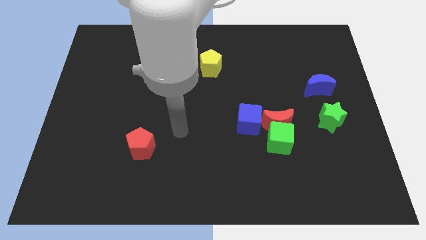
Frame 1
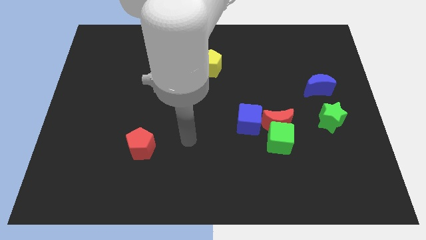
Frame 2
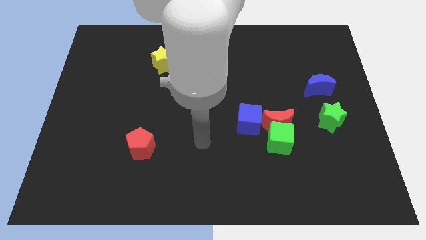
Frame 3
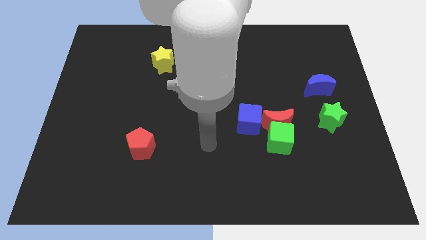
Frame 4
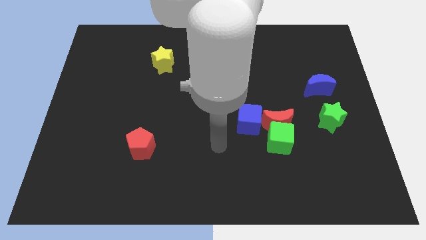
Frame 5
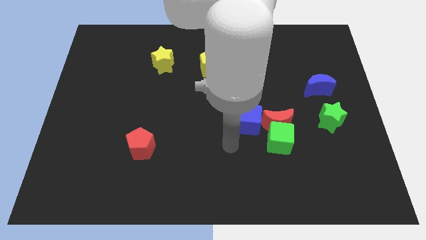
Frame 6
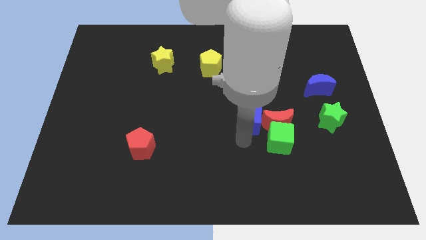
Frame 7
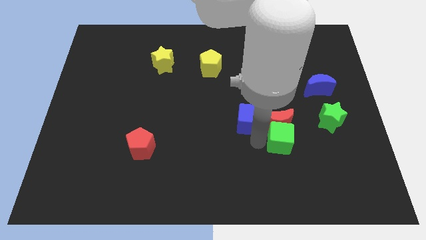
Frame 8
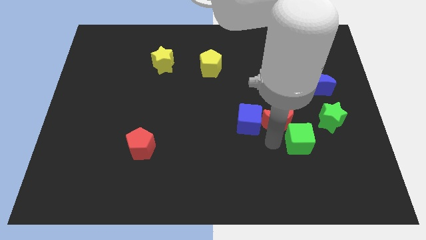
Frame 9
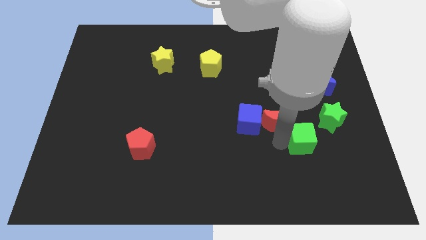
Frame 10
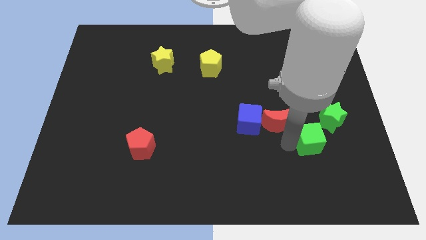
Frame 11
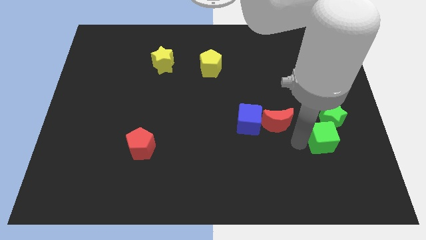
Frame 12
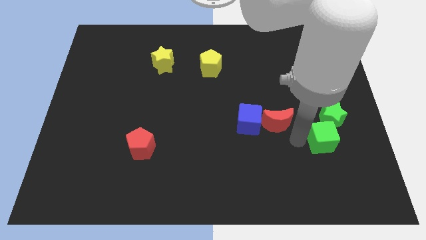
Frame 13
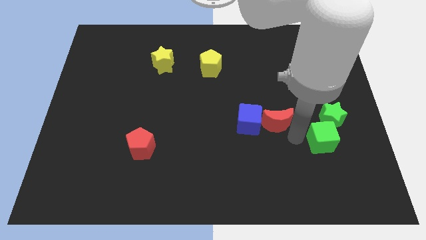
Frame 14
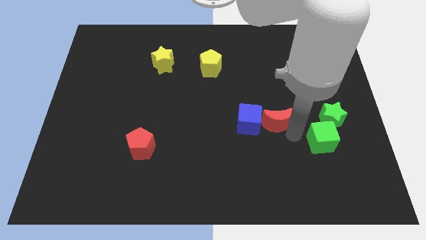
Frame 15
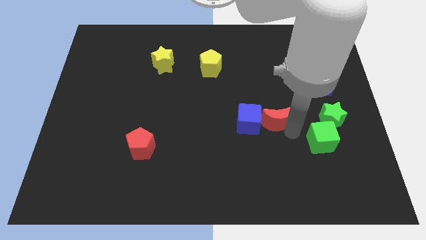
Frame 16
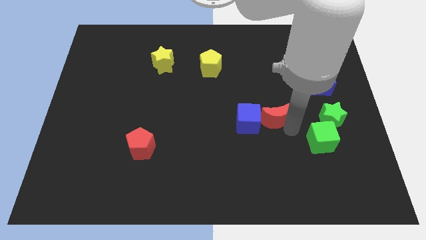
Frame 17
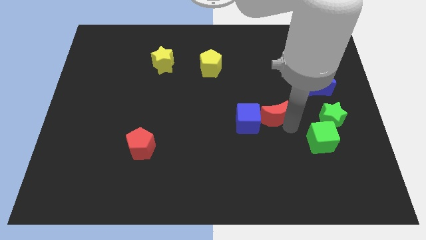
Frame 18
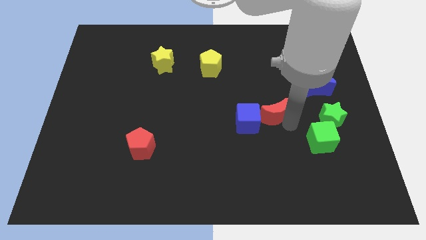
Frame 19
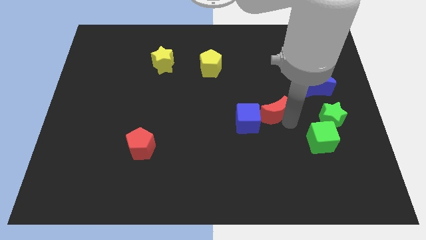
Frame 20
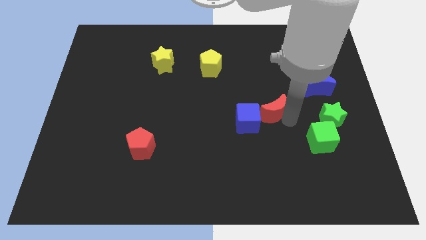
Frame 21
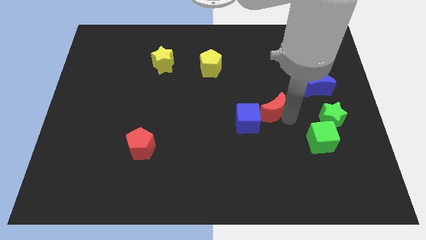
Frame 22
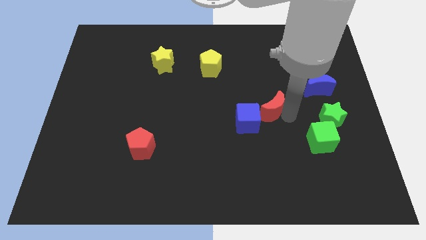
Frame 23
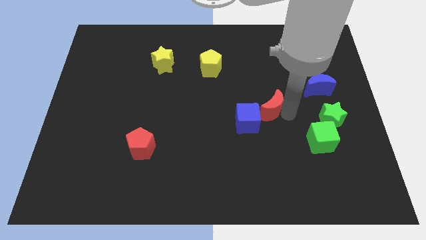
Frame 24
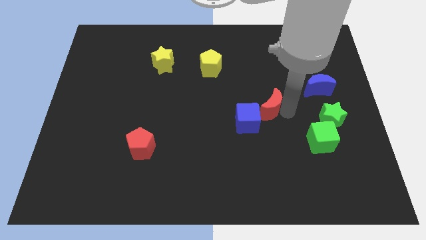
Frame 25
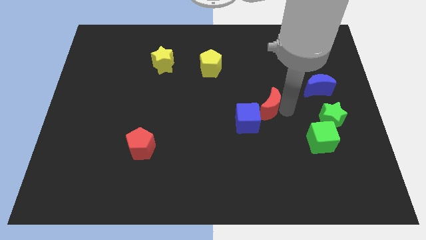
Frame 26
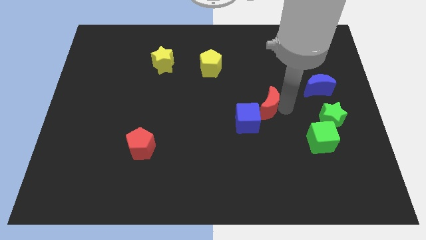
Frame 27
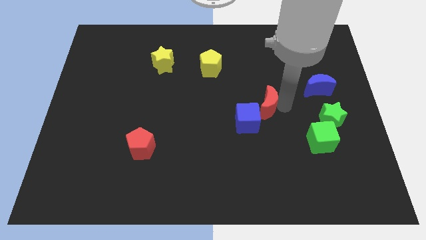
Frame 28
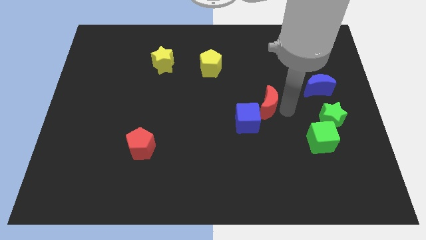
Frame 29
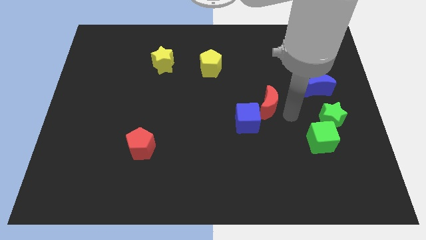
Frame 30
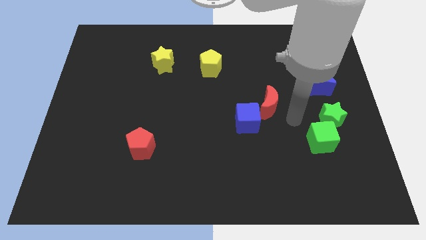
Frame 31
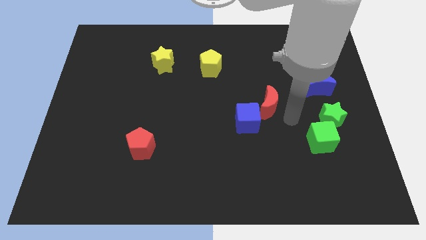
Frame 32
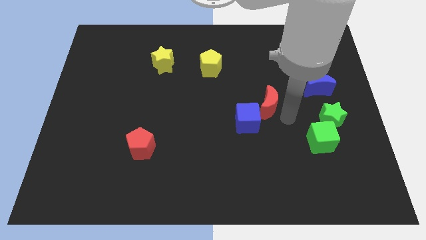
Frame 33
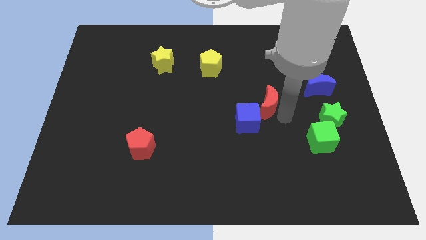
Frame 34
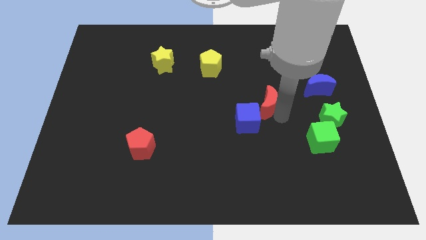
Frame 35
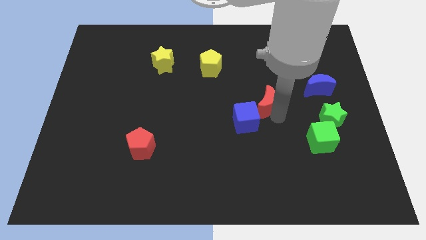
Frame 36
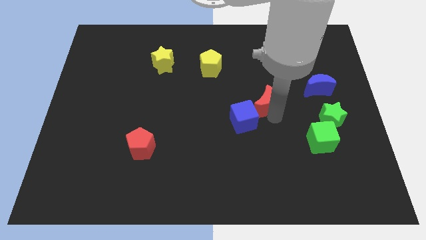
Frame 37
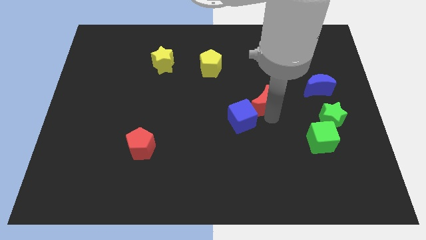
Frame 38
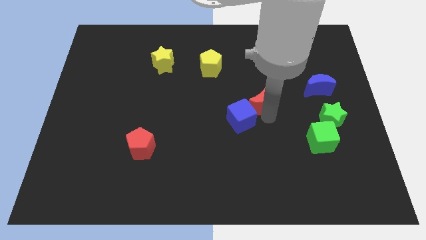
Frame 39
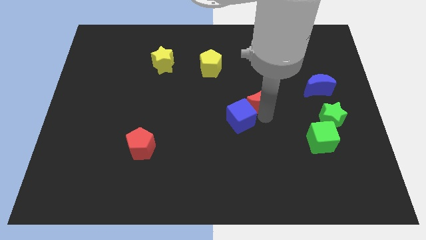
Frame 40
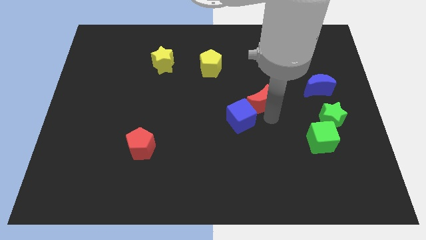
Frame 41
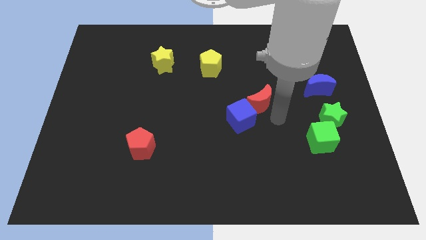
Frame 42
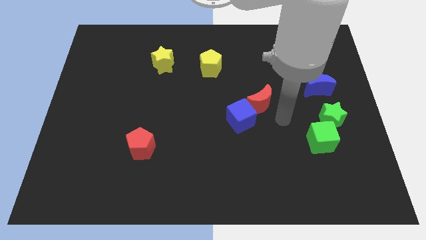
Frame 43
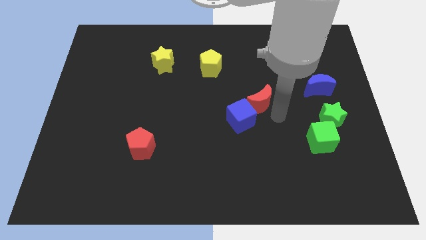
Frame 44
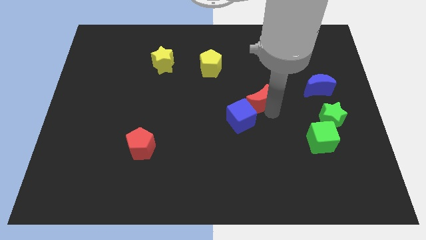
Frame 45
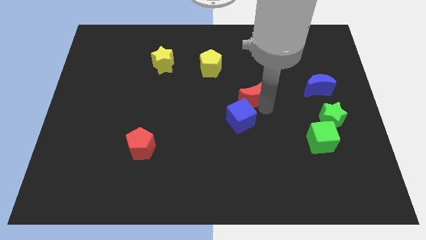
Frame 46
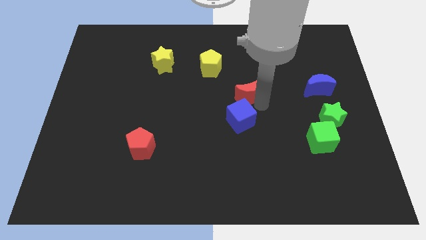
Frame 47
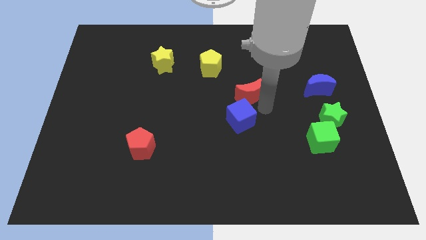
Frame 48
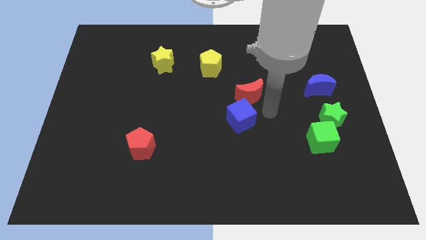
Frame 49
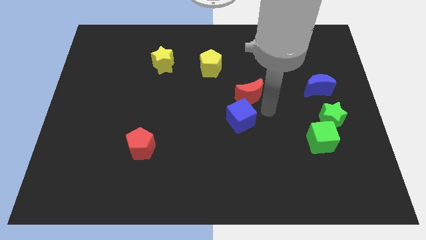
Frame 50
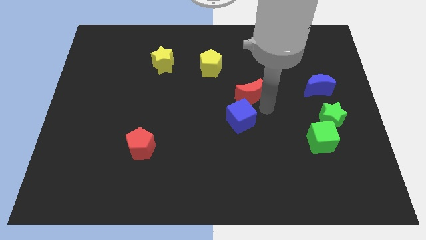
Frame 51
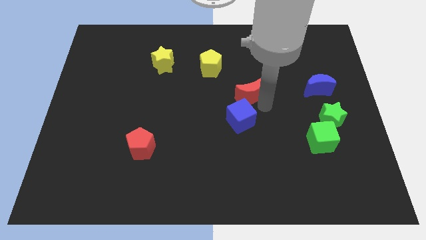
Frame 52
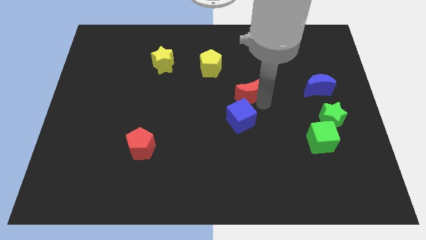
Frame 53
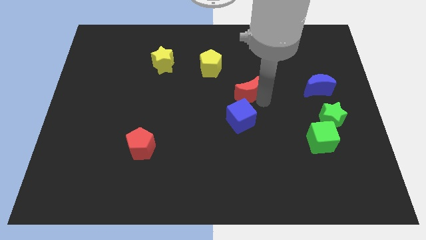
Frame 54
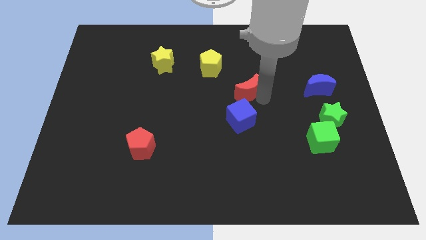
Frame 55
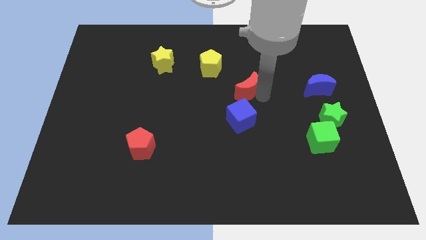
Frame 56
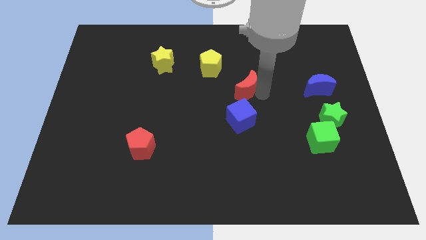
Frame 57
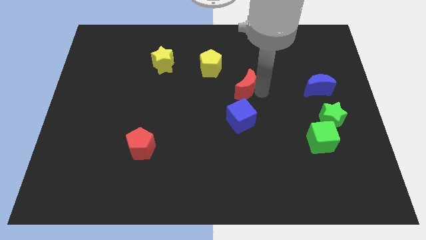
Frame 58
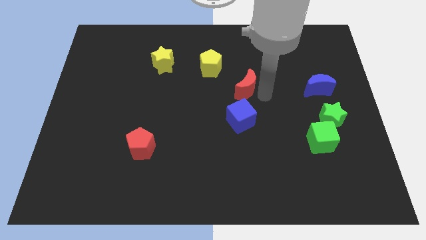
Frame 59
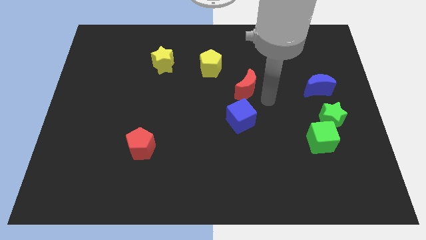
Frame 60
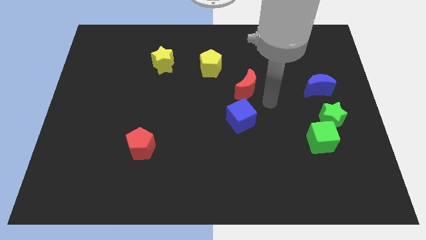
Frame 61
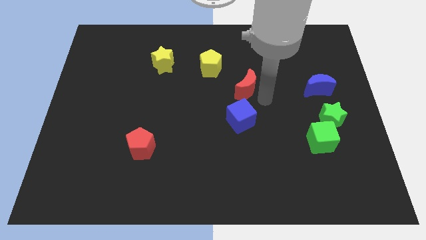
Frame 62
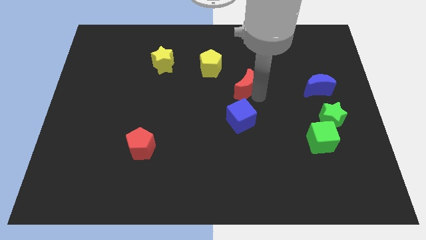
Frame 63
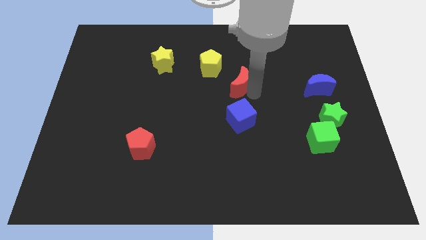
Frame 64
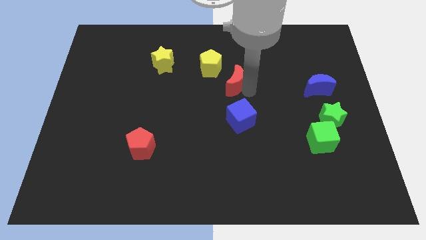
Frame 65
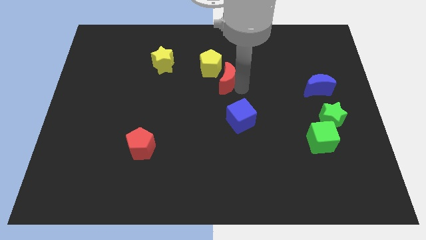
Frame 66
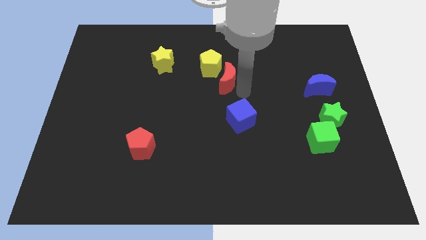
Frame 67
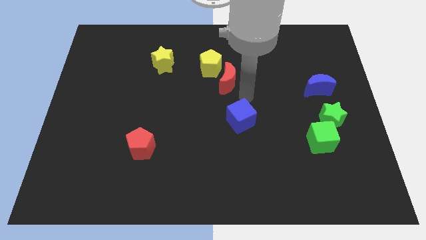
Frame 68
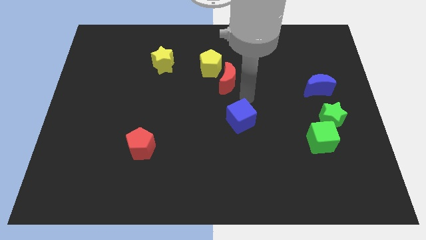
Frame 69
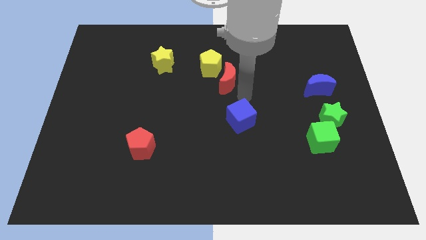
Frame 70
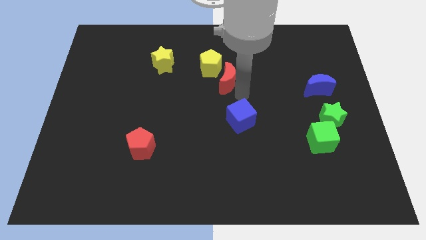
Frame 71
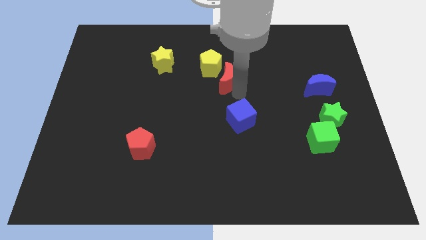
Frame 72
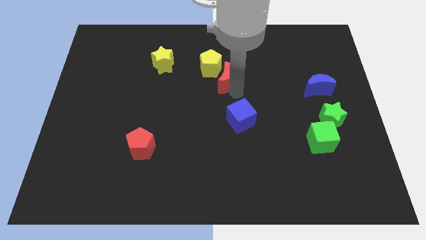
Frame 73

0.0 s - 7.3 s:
put the red moon to the yellow pentagon
